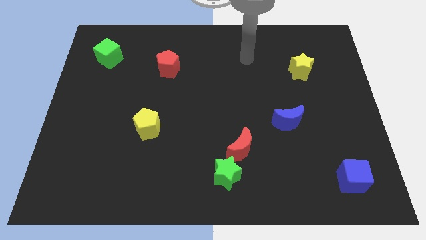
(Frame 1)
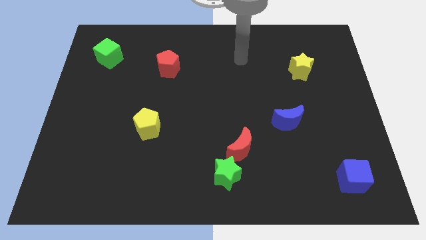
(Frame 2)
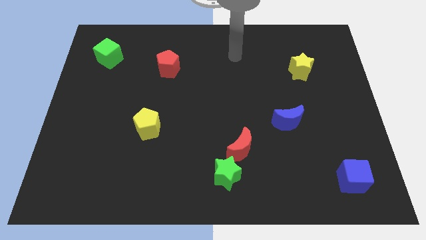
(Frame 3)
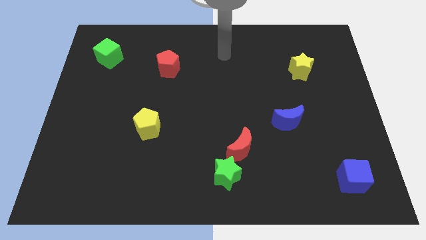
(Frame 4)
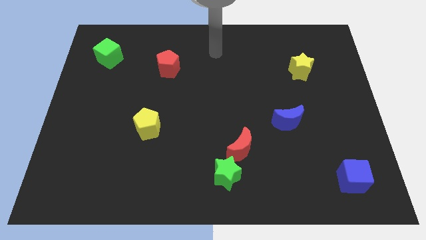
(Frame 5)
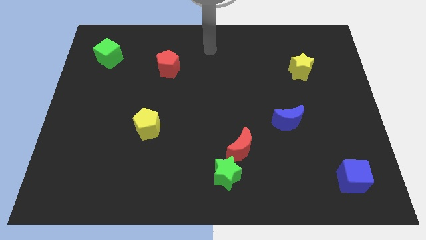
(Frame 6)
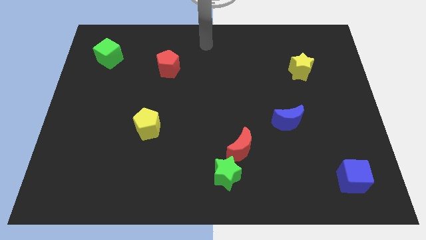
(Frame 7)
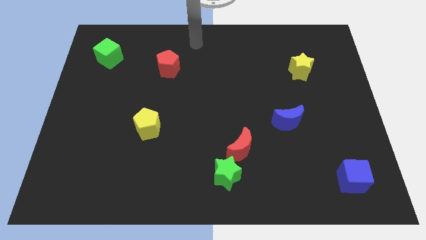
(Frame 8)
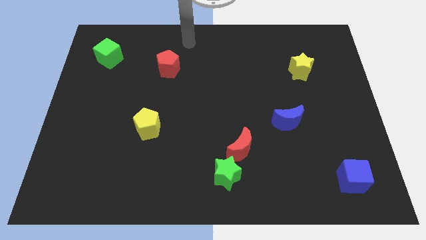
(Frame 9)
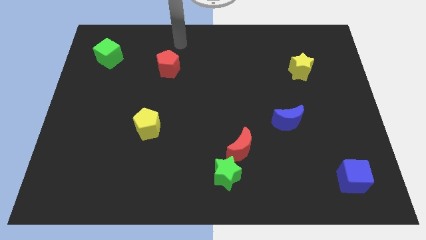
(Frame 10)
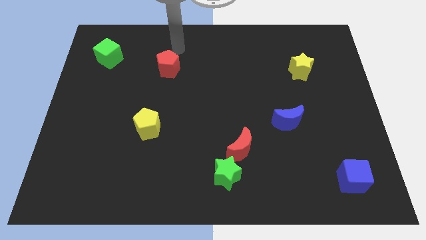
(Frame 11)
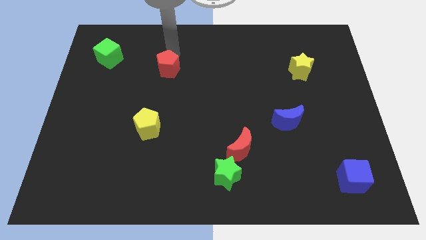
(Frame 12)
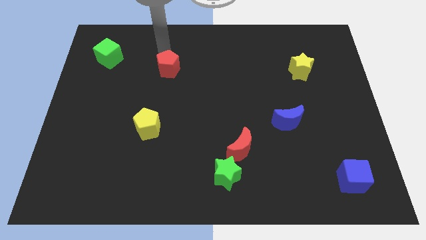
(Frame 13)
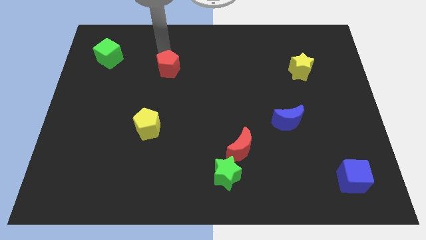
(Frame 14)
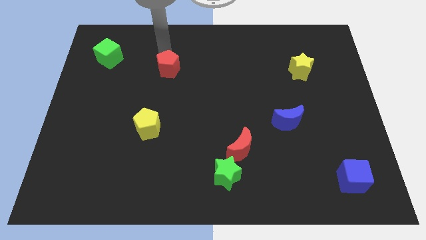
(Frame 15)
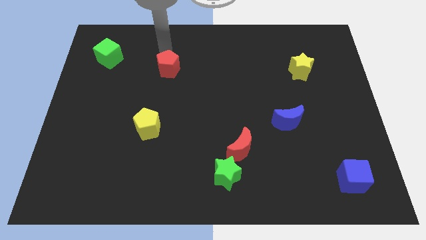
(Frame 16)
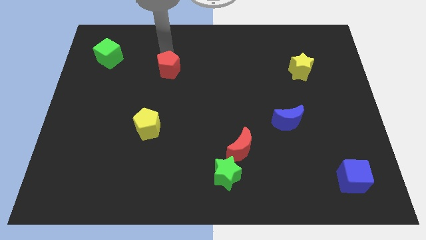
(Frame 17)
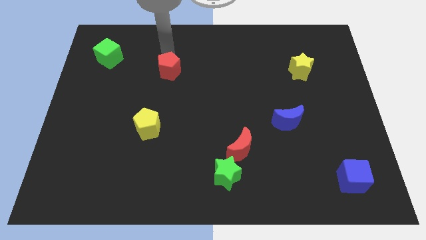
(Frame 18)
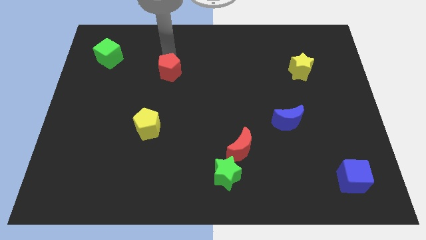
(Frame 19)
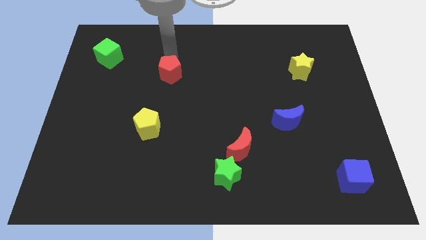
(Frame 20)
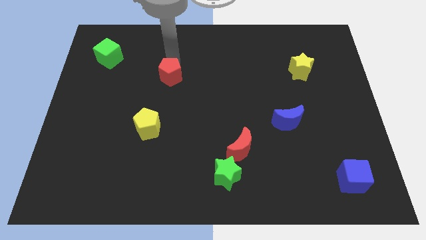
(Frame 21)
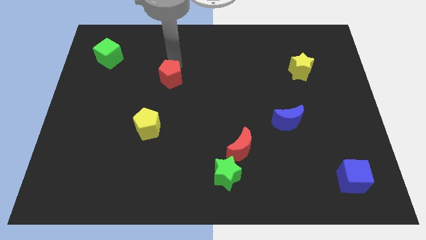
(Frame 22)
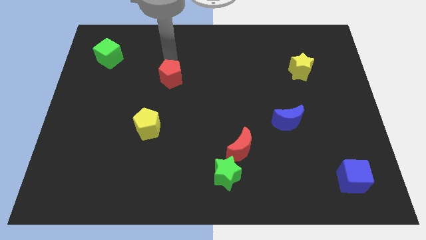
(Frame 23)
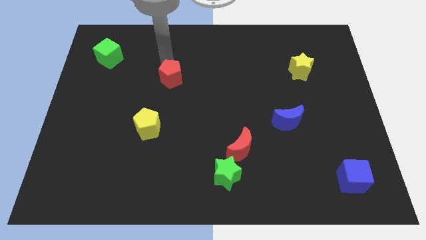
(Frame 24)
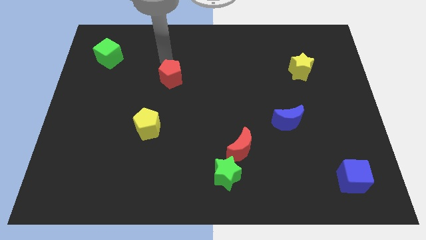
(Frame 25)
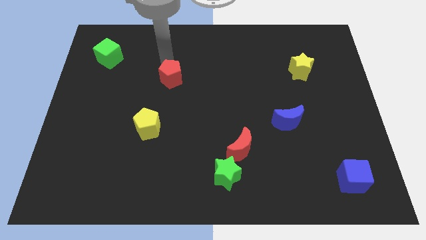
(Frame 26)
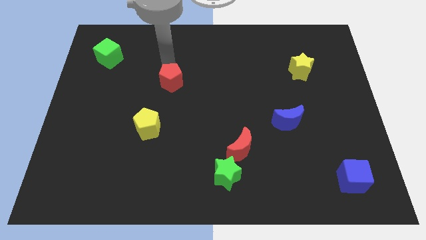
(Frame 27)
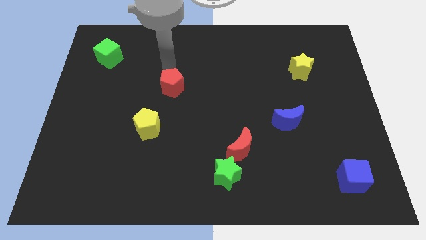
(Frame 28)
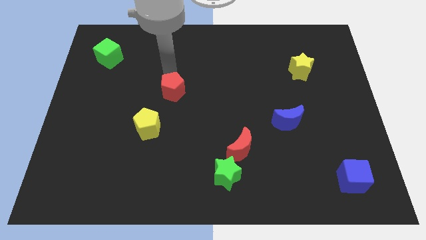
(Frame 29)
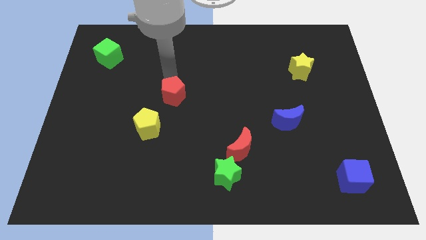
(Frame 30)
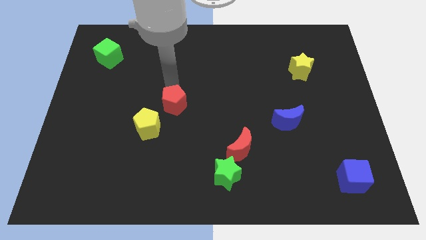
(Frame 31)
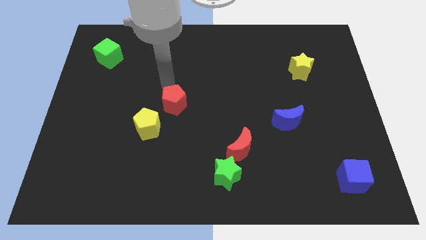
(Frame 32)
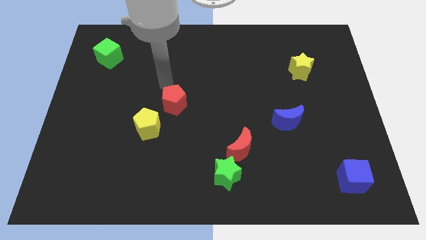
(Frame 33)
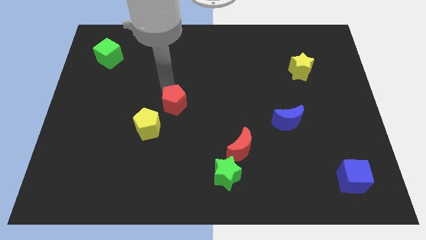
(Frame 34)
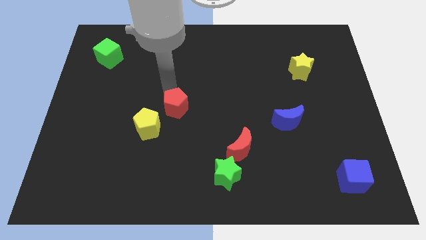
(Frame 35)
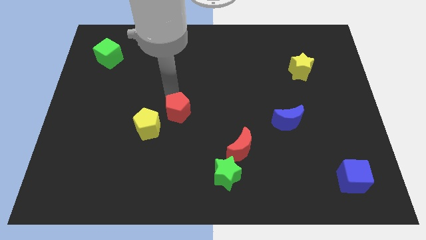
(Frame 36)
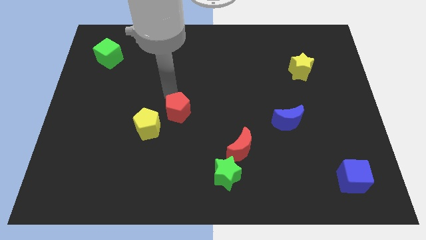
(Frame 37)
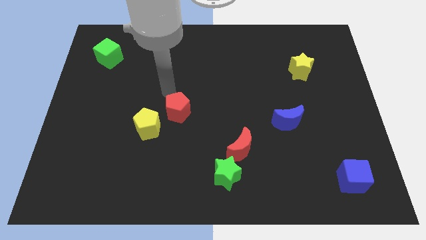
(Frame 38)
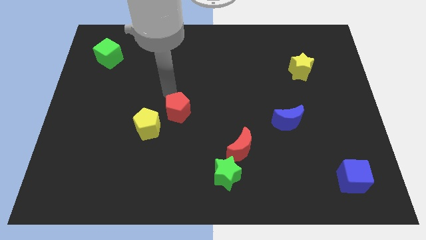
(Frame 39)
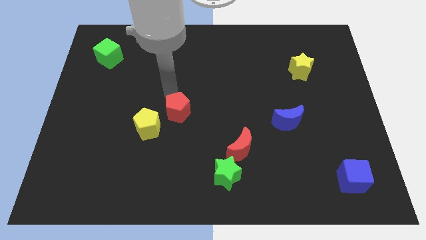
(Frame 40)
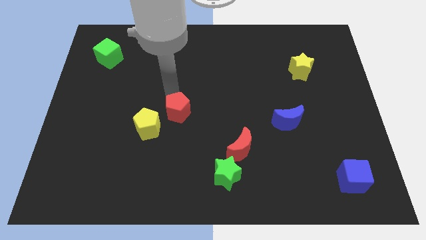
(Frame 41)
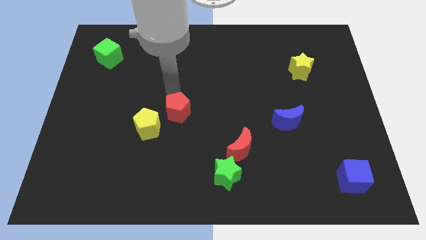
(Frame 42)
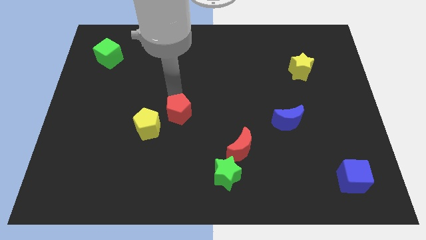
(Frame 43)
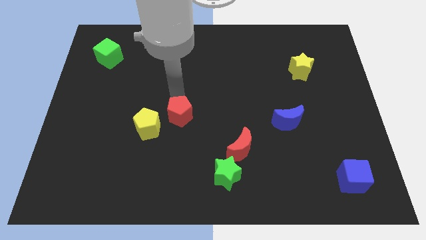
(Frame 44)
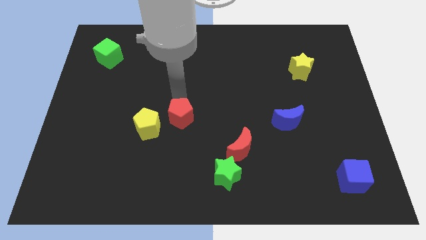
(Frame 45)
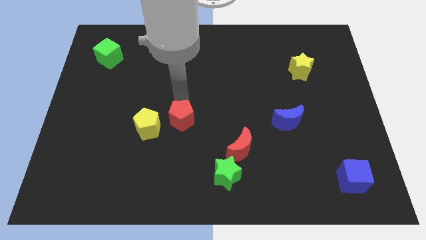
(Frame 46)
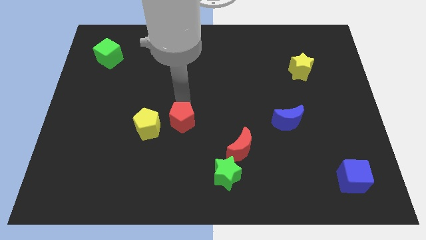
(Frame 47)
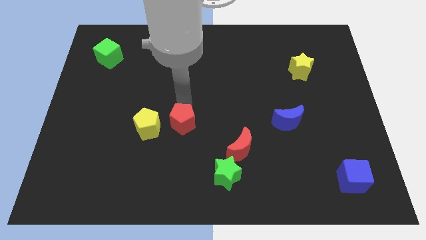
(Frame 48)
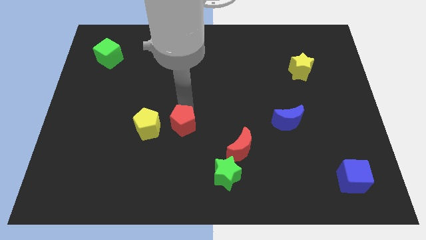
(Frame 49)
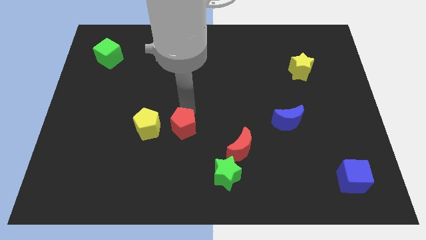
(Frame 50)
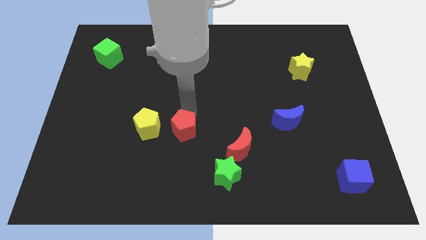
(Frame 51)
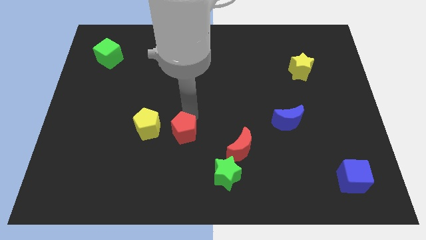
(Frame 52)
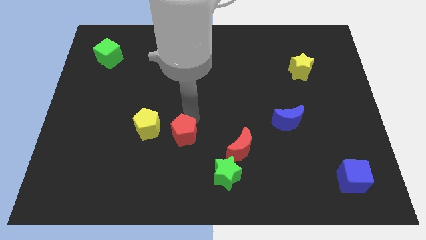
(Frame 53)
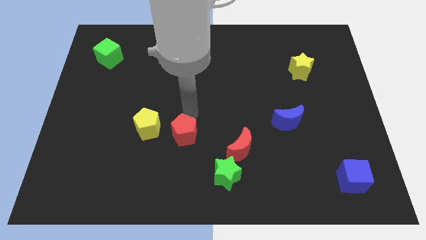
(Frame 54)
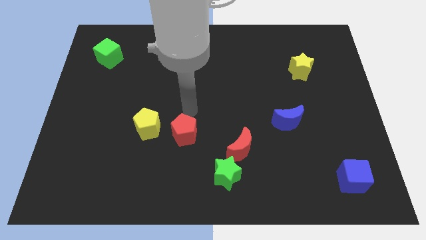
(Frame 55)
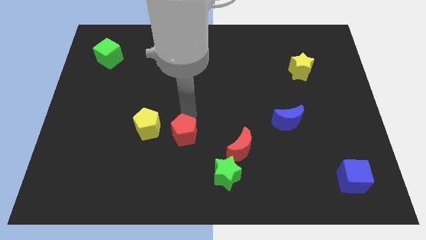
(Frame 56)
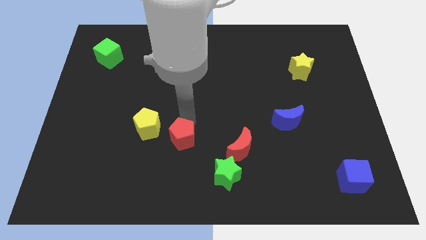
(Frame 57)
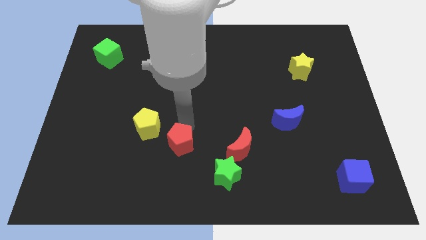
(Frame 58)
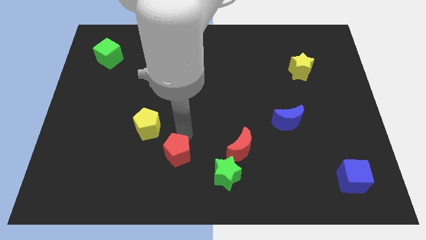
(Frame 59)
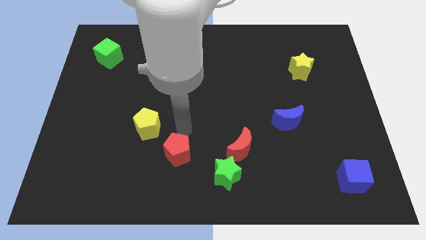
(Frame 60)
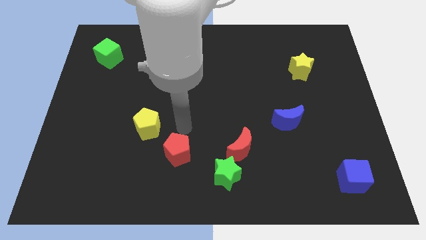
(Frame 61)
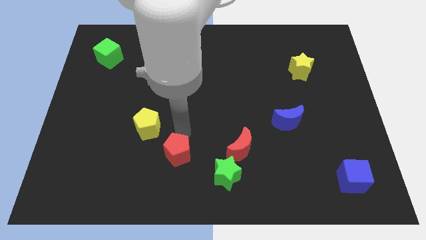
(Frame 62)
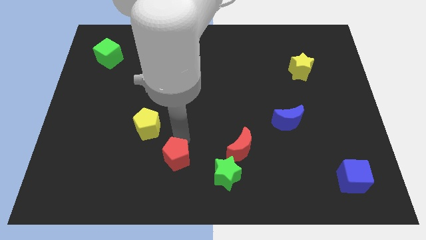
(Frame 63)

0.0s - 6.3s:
slide the red pentagon to the left side of the green star

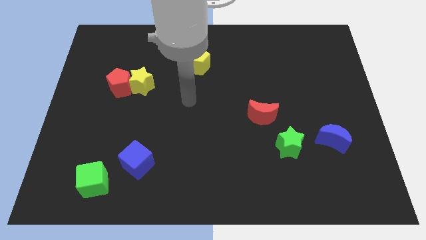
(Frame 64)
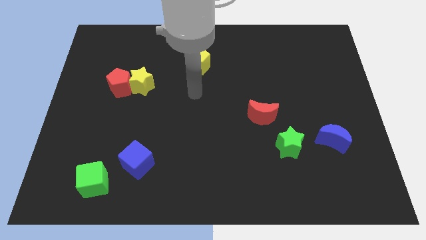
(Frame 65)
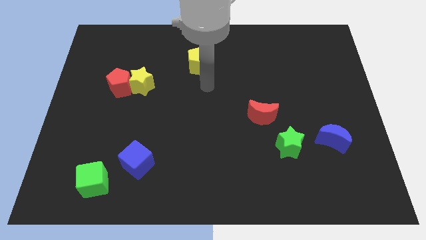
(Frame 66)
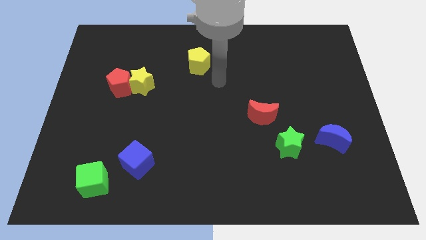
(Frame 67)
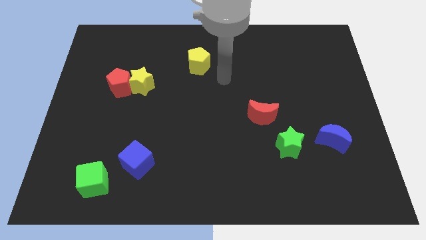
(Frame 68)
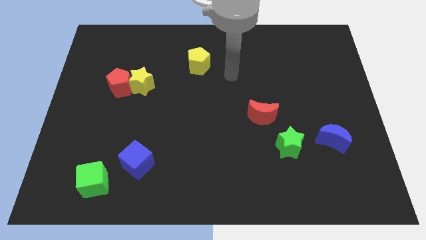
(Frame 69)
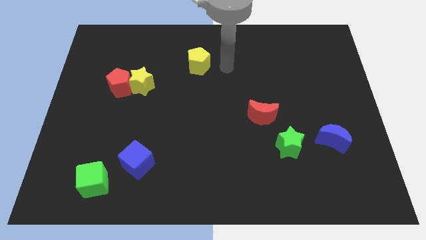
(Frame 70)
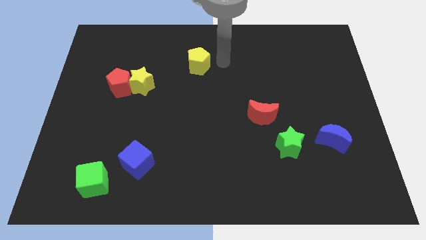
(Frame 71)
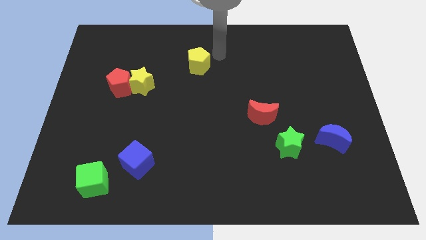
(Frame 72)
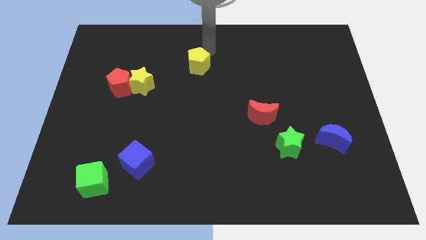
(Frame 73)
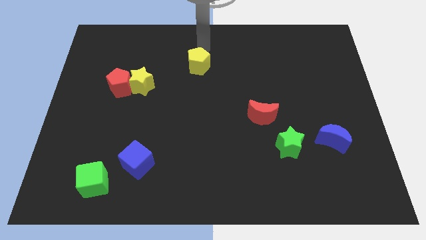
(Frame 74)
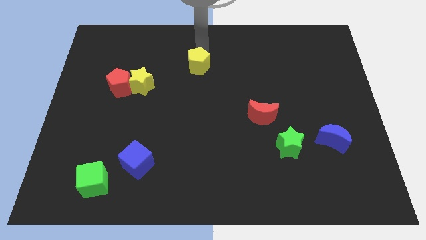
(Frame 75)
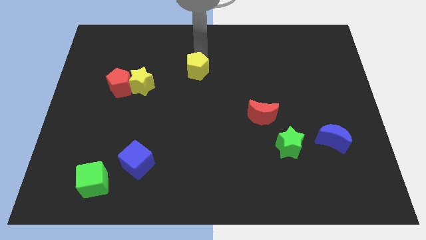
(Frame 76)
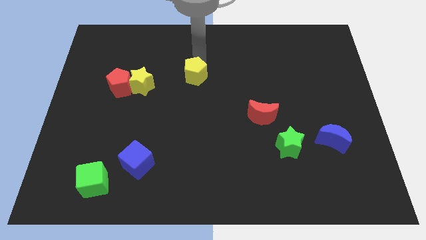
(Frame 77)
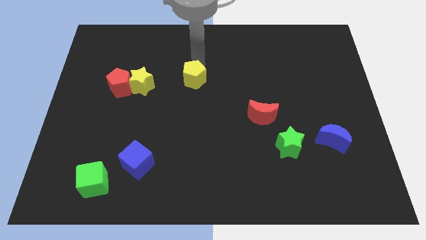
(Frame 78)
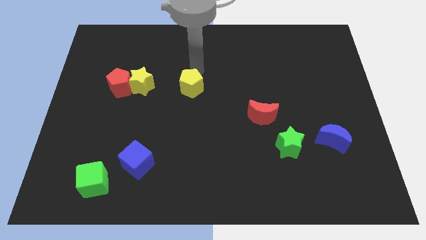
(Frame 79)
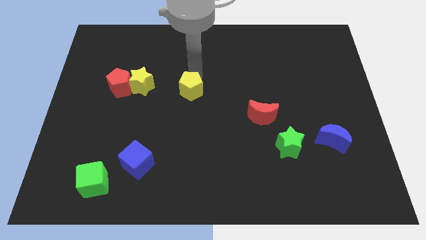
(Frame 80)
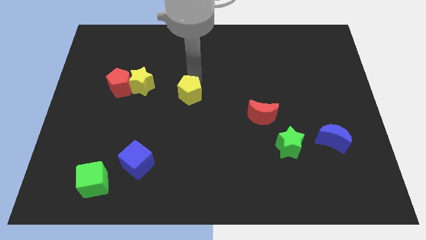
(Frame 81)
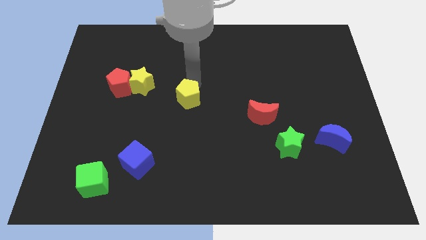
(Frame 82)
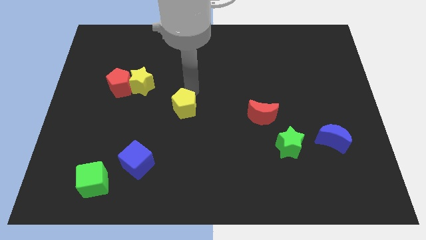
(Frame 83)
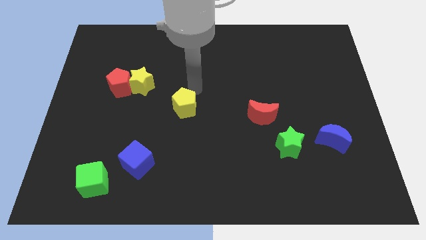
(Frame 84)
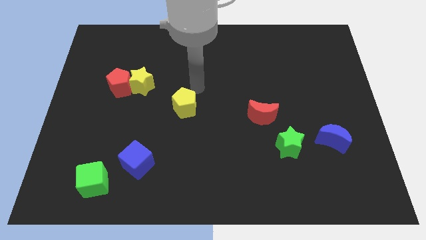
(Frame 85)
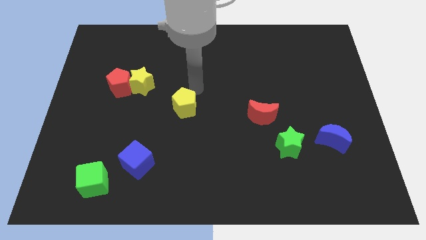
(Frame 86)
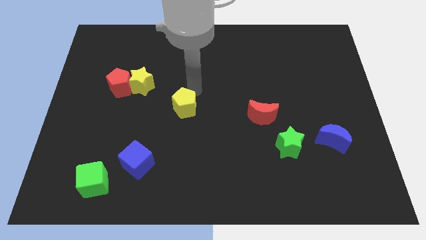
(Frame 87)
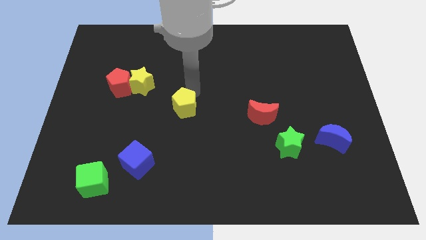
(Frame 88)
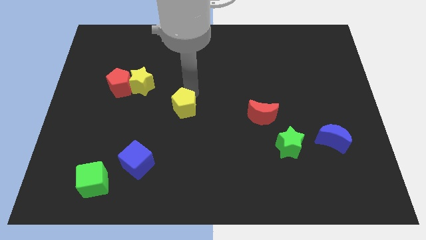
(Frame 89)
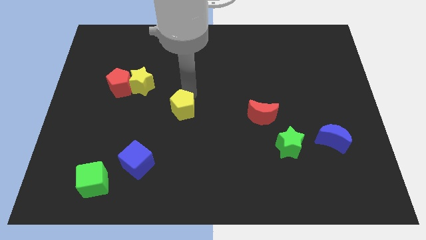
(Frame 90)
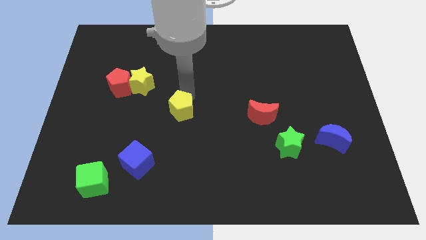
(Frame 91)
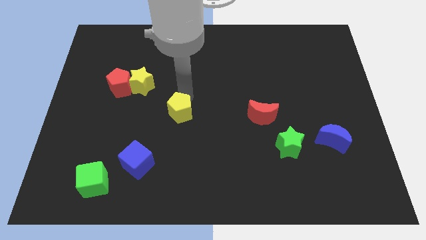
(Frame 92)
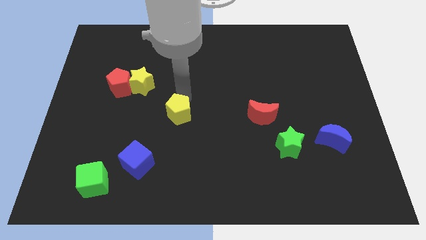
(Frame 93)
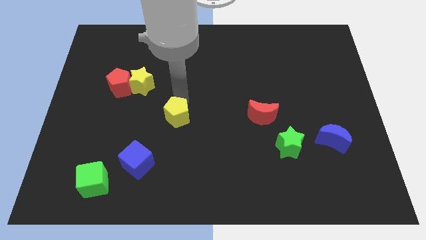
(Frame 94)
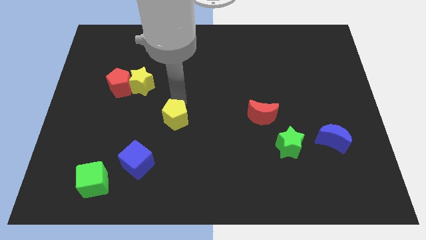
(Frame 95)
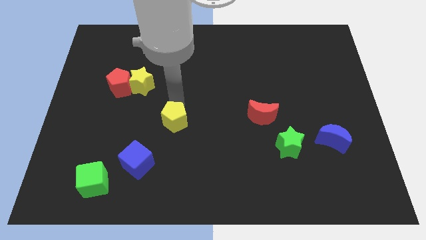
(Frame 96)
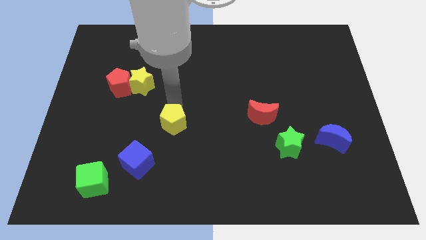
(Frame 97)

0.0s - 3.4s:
move the yellow pentagon diagonally up and to the right of the blue cube
